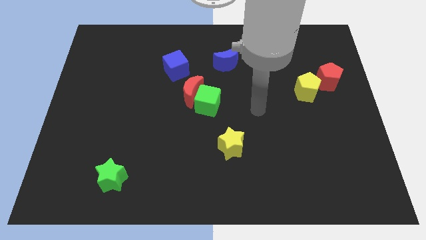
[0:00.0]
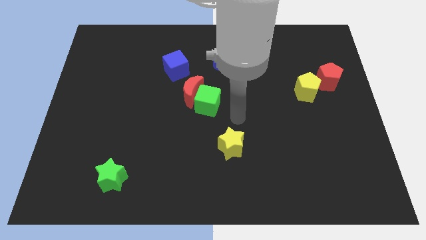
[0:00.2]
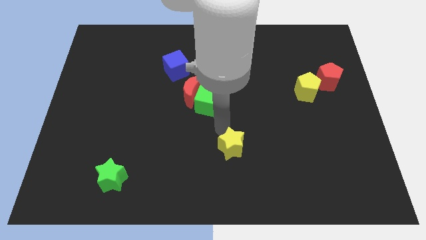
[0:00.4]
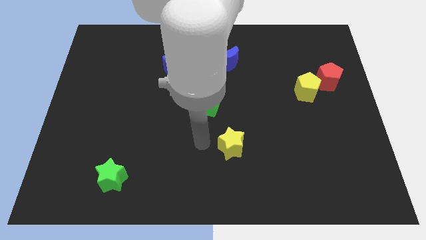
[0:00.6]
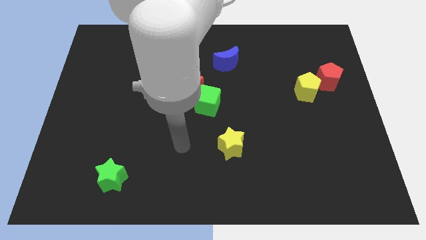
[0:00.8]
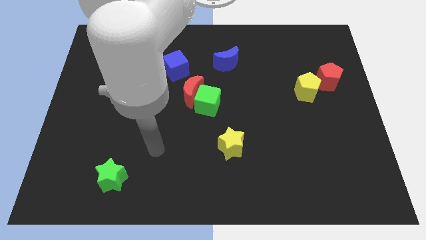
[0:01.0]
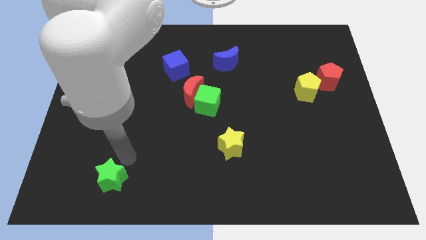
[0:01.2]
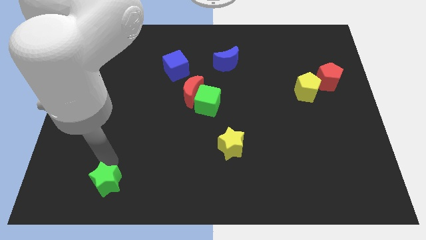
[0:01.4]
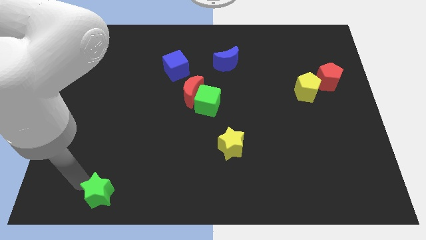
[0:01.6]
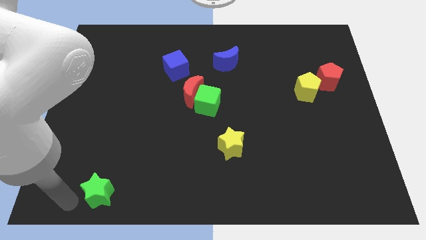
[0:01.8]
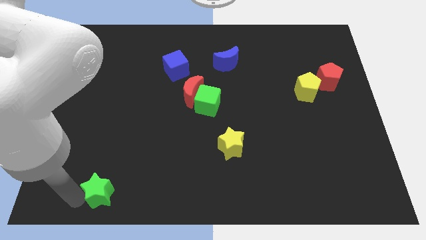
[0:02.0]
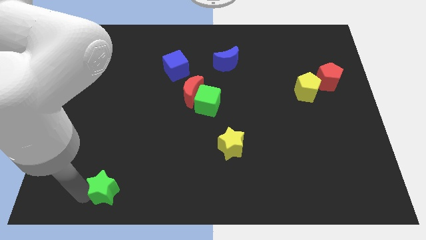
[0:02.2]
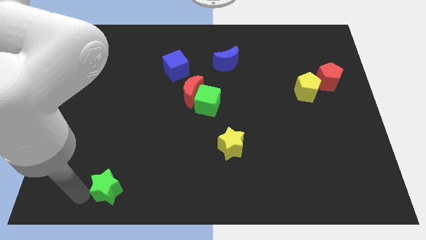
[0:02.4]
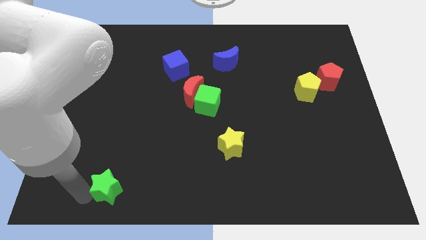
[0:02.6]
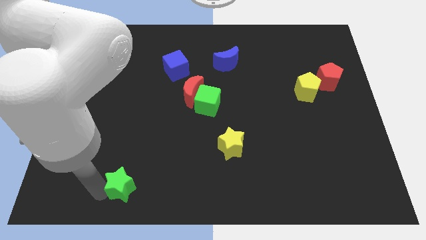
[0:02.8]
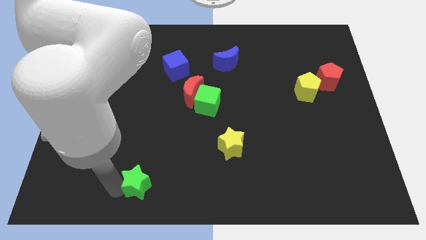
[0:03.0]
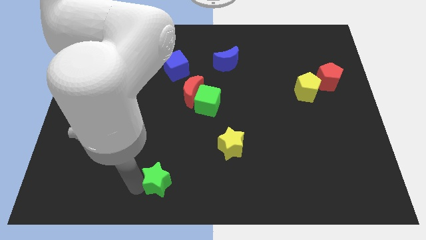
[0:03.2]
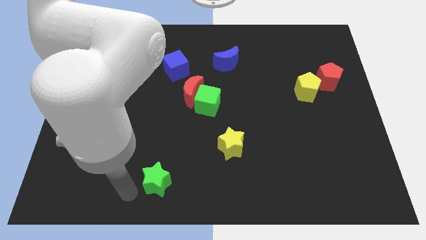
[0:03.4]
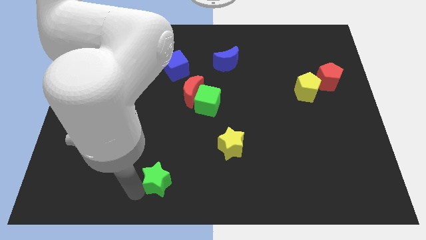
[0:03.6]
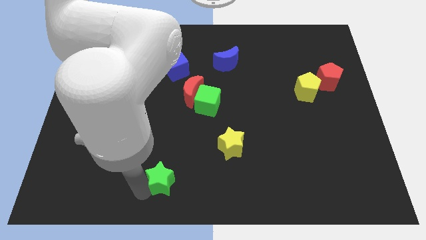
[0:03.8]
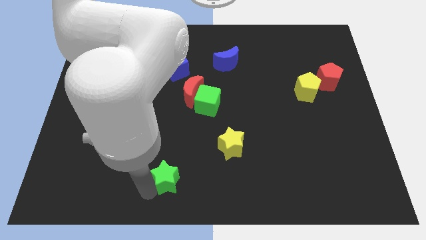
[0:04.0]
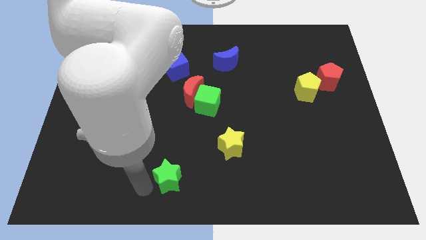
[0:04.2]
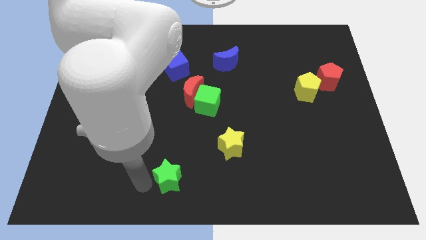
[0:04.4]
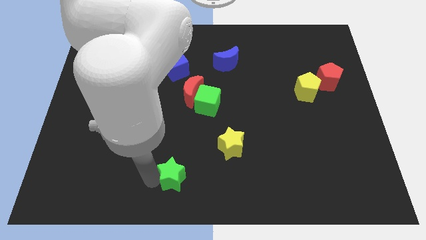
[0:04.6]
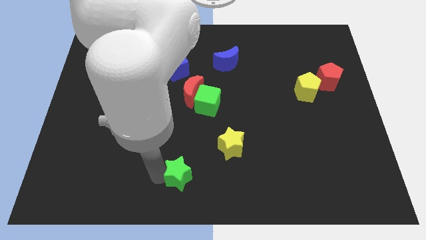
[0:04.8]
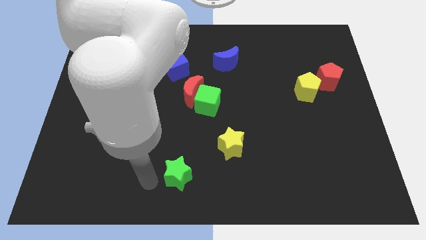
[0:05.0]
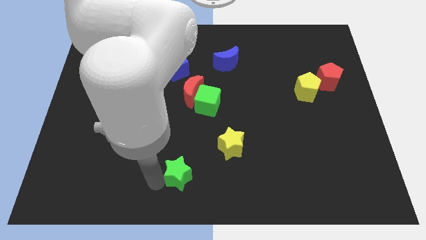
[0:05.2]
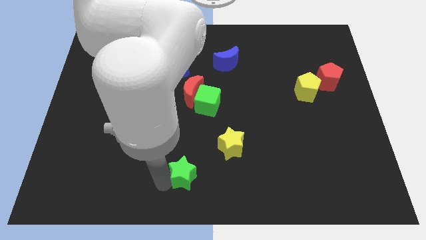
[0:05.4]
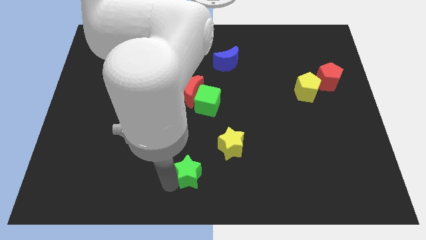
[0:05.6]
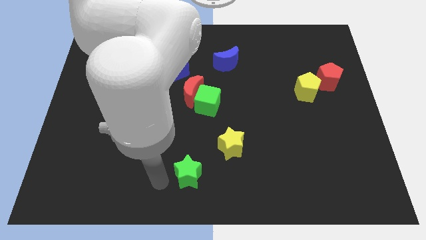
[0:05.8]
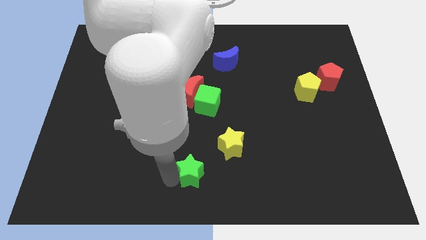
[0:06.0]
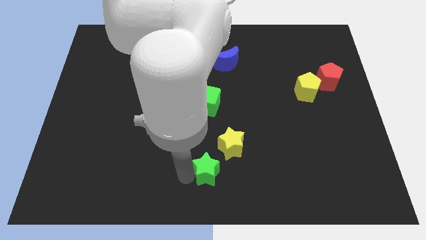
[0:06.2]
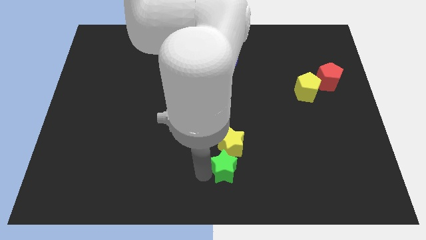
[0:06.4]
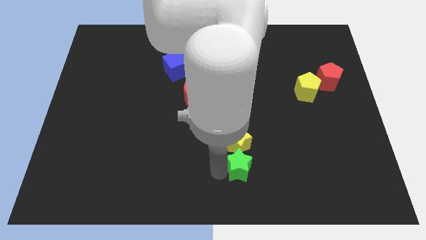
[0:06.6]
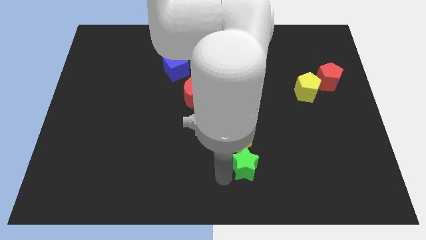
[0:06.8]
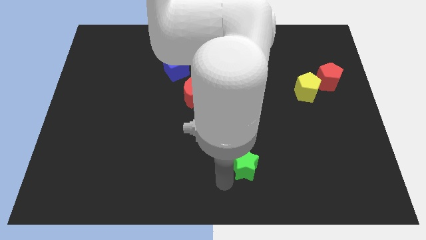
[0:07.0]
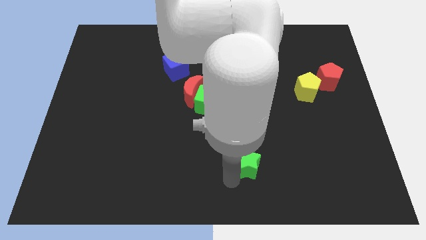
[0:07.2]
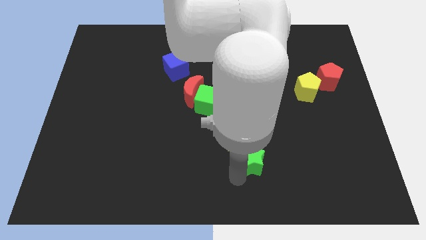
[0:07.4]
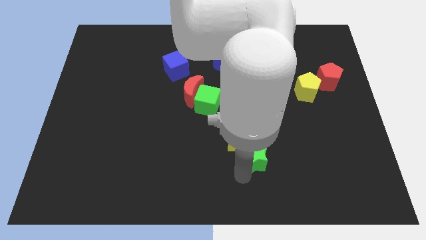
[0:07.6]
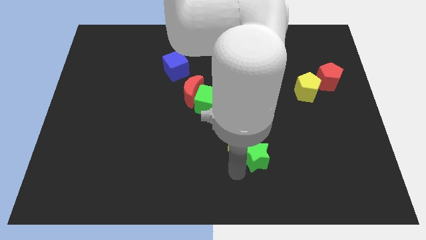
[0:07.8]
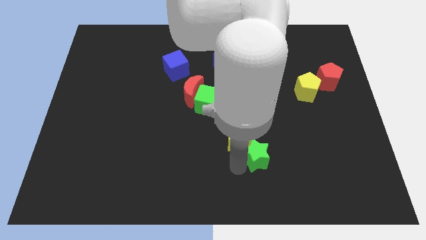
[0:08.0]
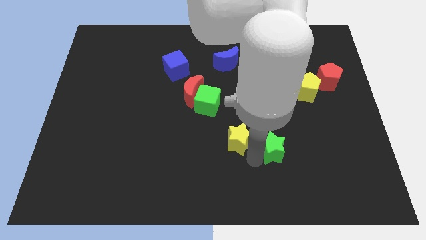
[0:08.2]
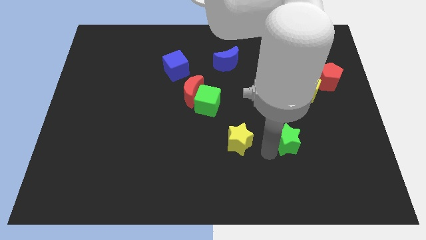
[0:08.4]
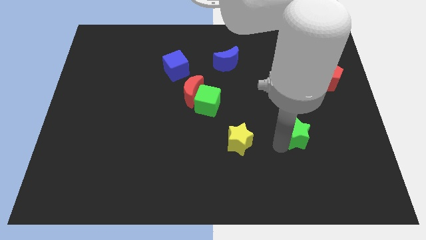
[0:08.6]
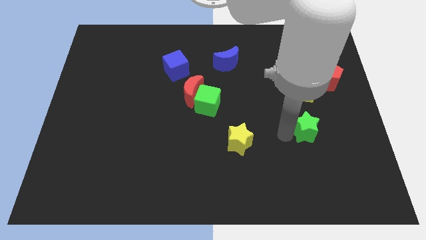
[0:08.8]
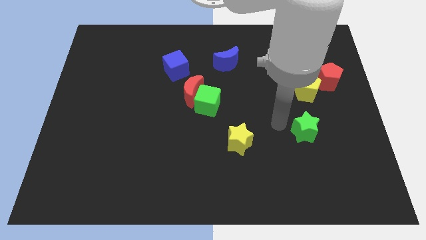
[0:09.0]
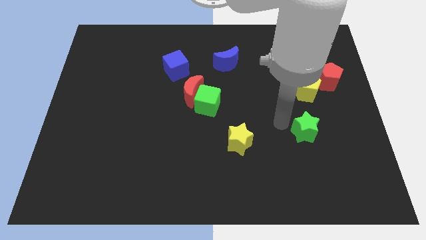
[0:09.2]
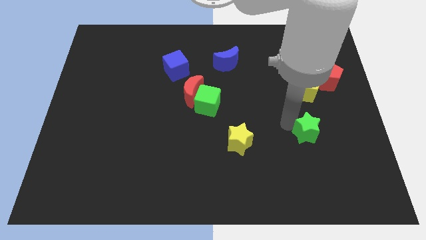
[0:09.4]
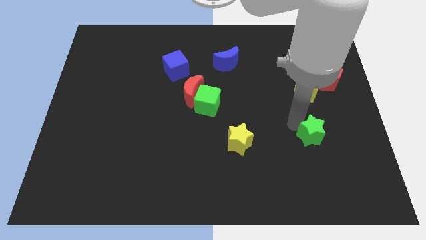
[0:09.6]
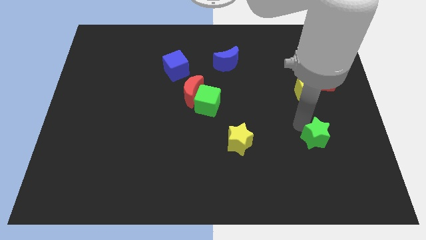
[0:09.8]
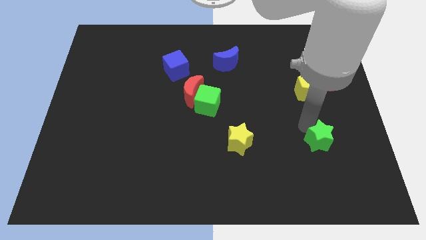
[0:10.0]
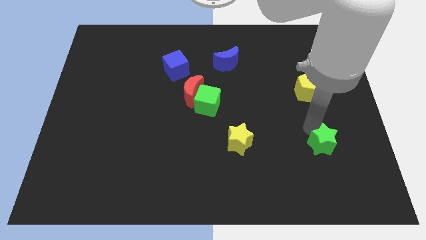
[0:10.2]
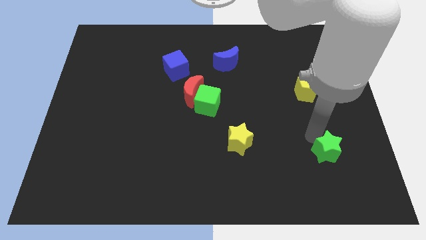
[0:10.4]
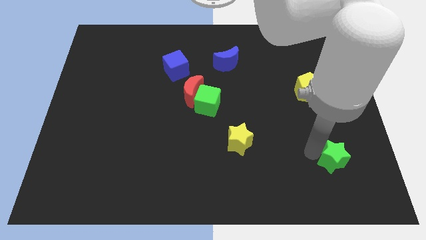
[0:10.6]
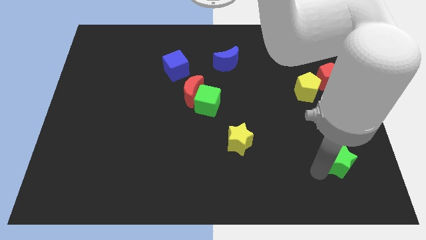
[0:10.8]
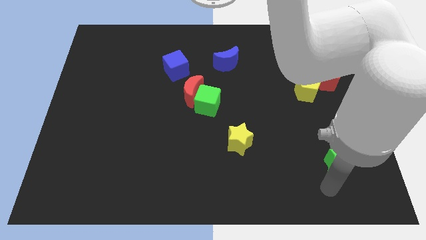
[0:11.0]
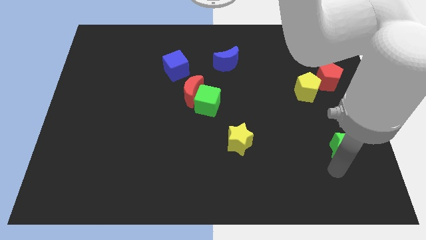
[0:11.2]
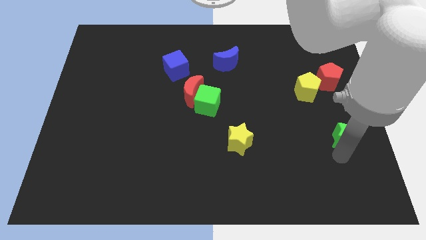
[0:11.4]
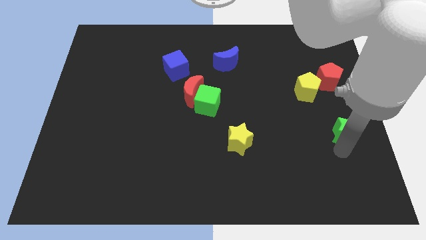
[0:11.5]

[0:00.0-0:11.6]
put the green star to the center right

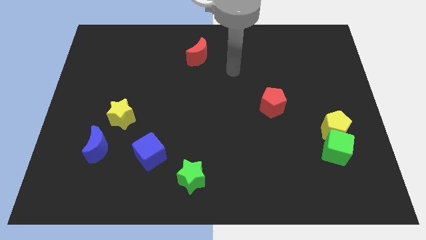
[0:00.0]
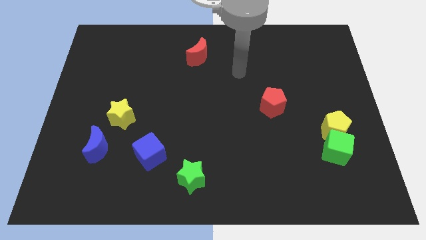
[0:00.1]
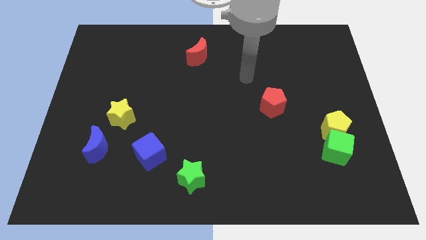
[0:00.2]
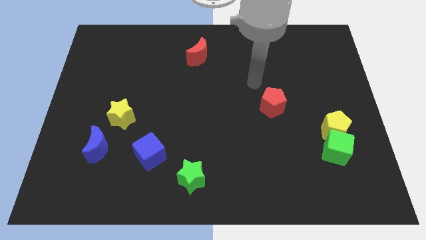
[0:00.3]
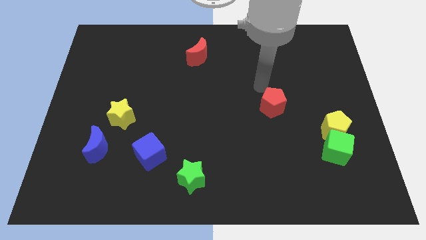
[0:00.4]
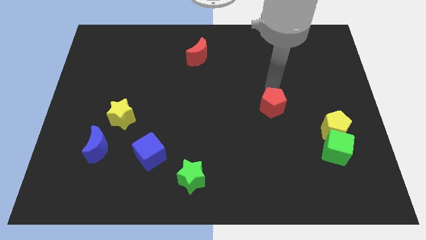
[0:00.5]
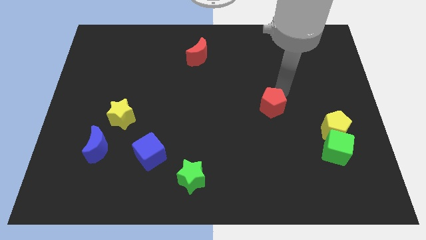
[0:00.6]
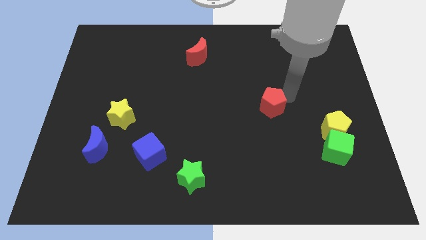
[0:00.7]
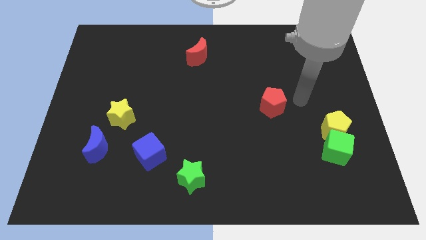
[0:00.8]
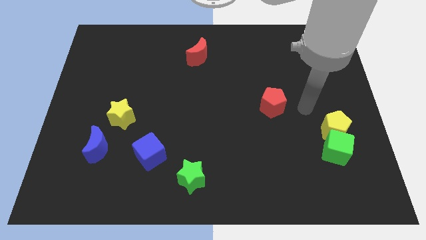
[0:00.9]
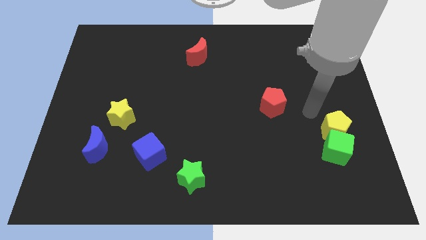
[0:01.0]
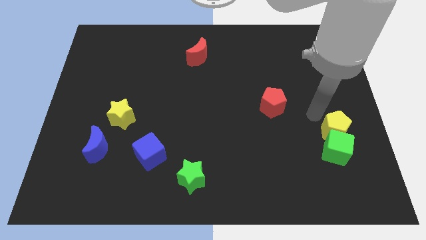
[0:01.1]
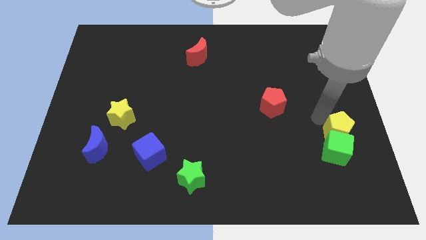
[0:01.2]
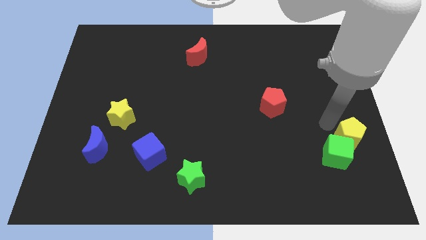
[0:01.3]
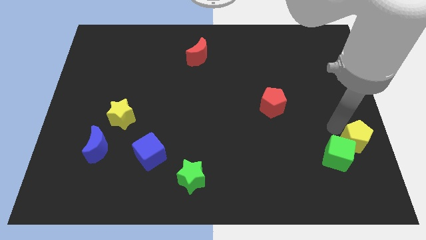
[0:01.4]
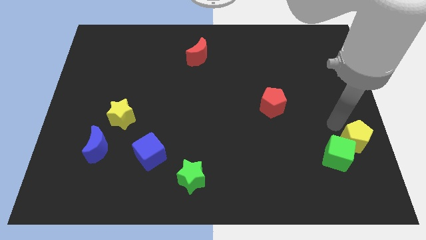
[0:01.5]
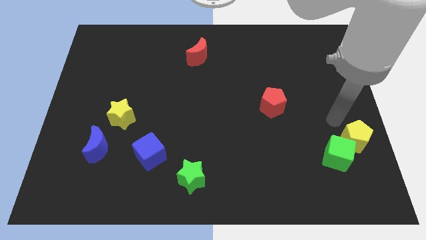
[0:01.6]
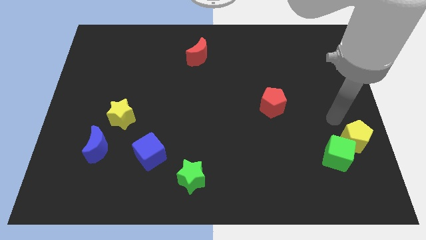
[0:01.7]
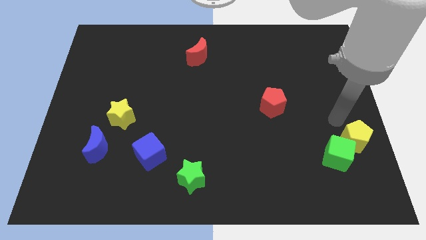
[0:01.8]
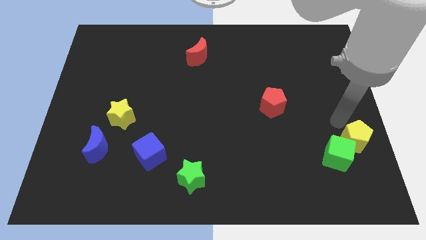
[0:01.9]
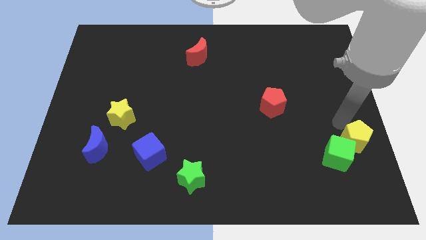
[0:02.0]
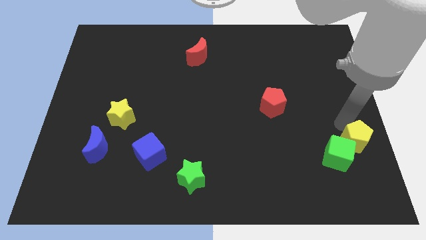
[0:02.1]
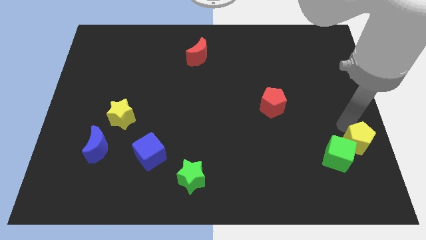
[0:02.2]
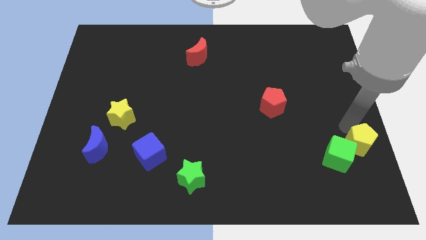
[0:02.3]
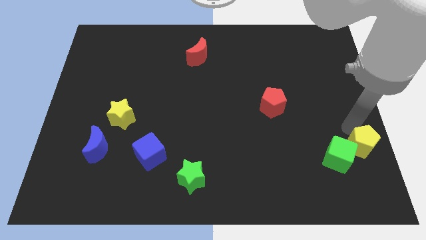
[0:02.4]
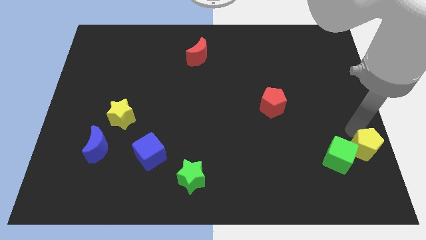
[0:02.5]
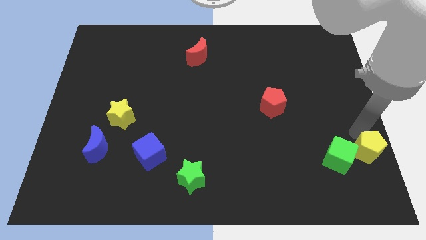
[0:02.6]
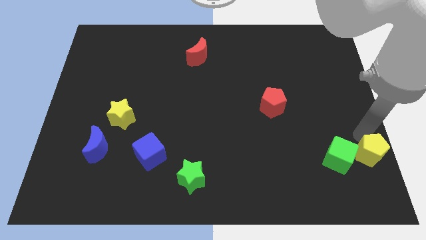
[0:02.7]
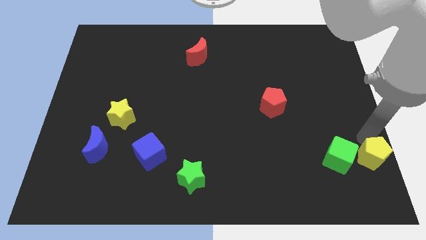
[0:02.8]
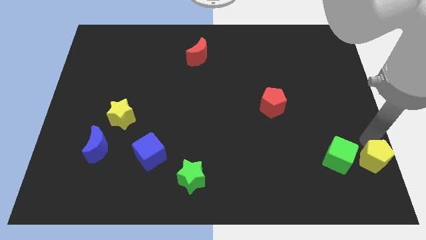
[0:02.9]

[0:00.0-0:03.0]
slide the yellow pentagon to the bottom right
